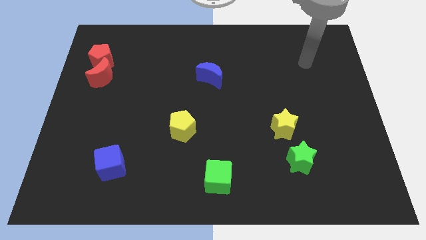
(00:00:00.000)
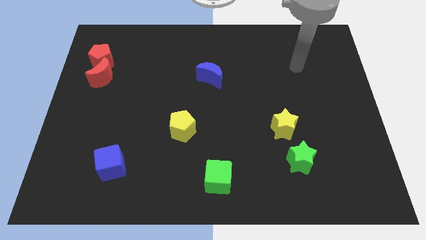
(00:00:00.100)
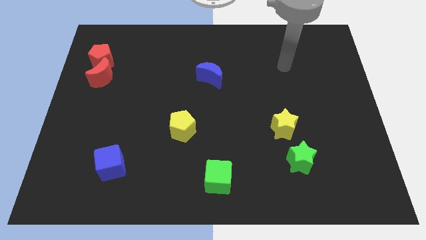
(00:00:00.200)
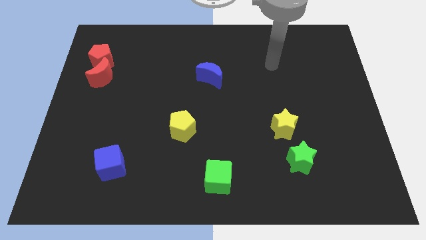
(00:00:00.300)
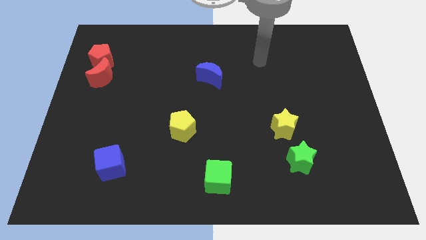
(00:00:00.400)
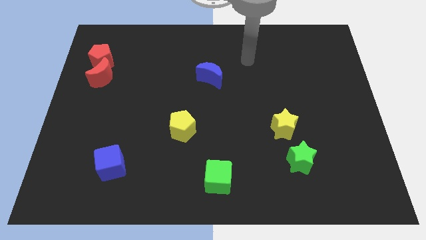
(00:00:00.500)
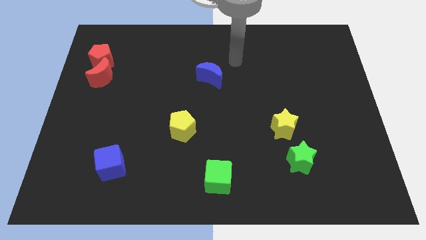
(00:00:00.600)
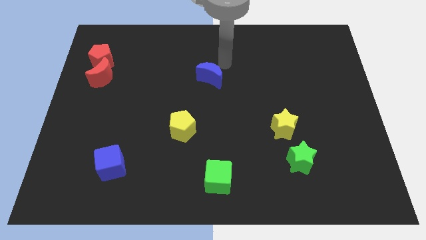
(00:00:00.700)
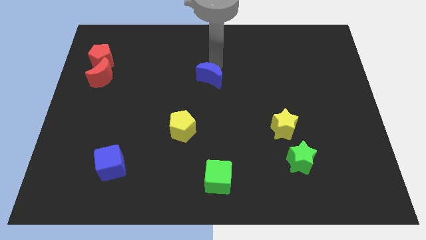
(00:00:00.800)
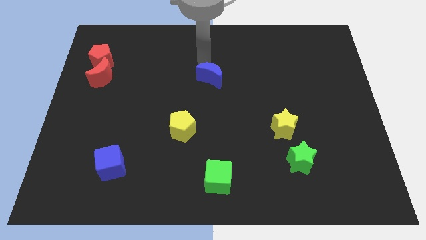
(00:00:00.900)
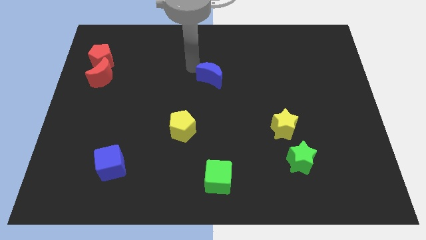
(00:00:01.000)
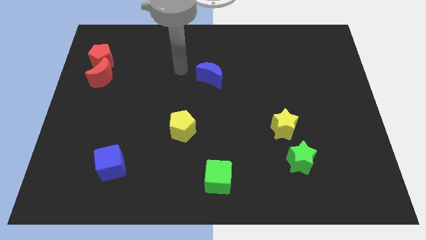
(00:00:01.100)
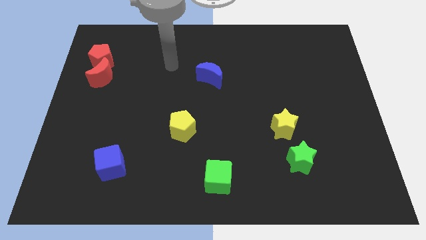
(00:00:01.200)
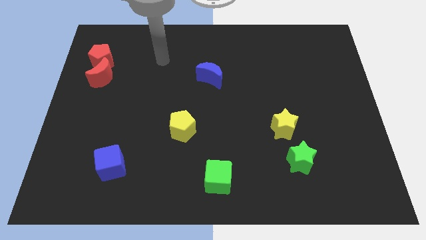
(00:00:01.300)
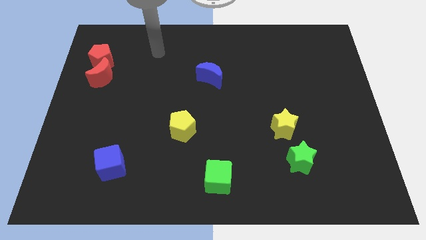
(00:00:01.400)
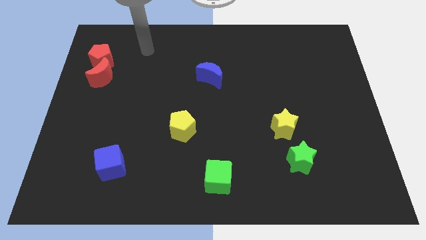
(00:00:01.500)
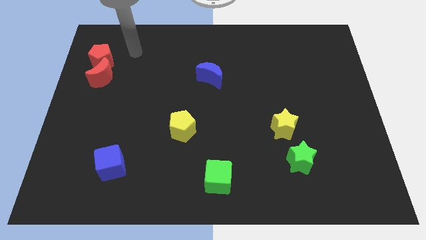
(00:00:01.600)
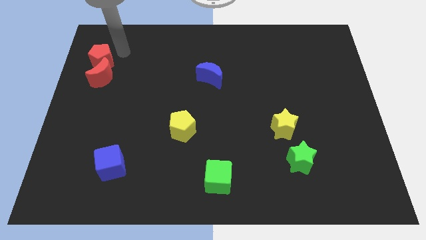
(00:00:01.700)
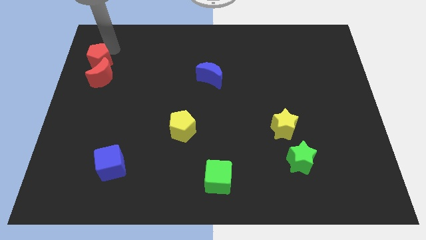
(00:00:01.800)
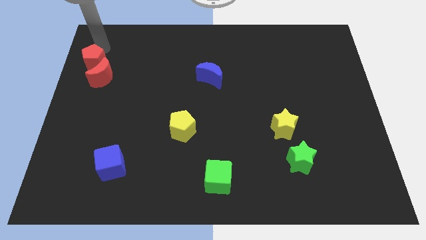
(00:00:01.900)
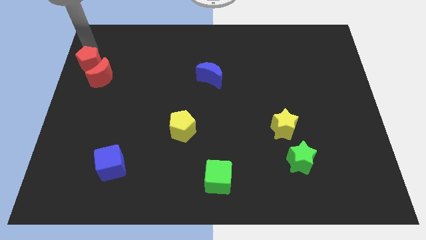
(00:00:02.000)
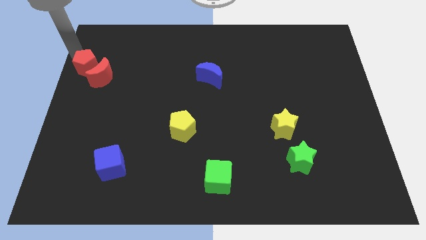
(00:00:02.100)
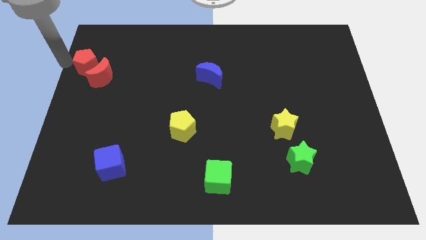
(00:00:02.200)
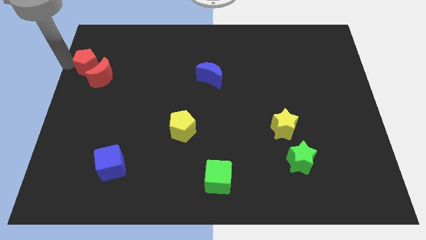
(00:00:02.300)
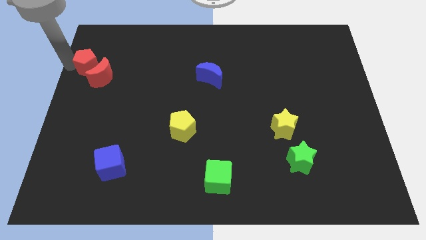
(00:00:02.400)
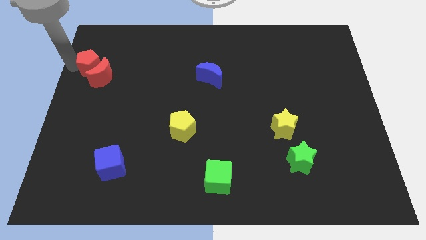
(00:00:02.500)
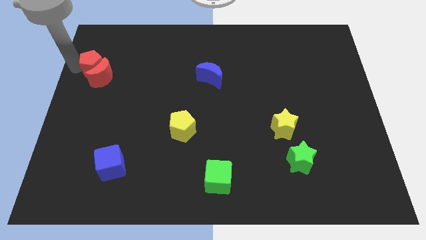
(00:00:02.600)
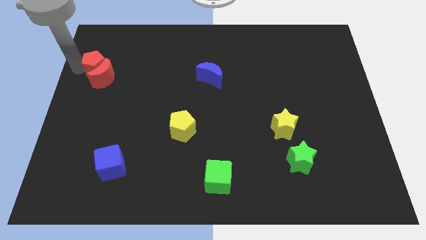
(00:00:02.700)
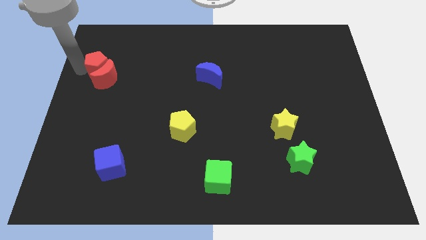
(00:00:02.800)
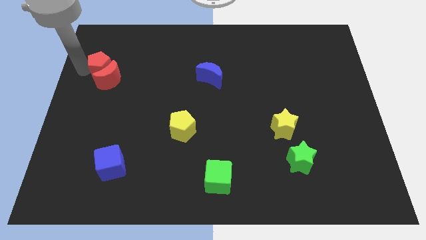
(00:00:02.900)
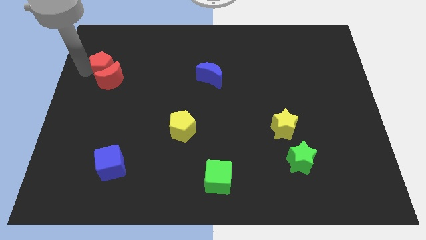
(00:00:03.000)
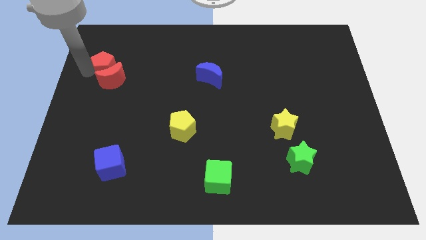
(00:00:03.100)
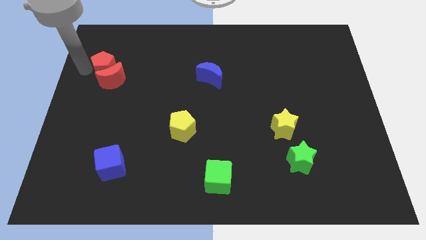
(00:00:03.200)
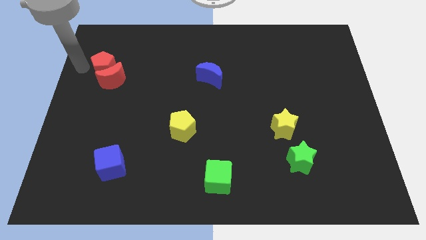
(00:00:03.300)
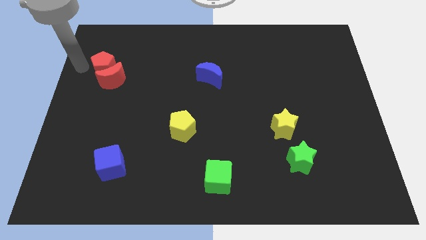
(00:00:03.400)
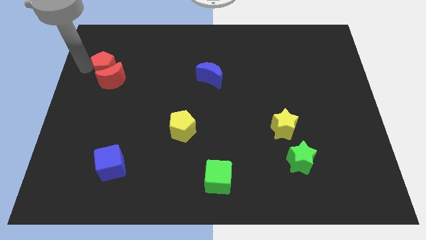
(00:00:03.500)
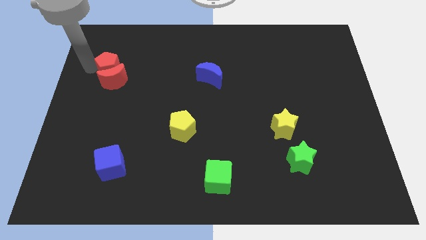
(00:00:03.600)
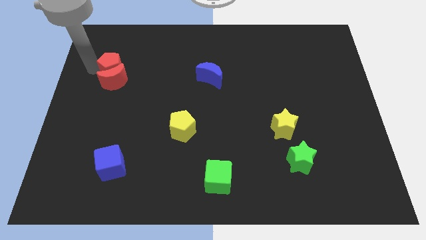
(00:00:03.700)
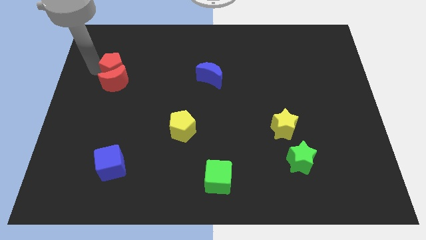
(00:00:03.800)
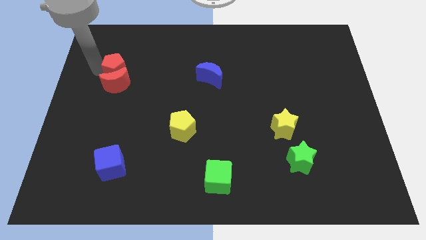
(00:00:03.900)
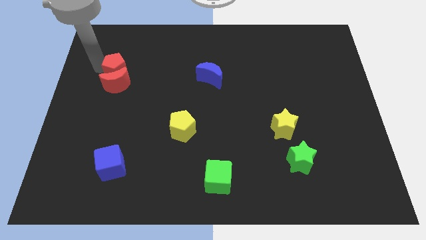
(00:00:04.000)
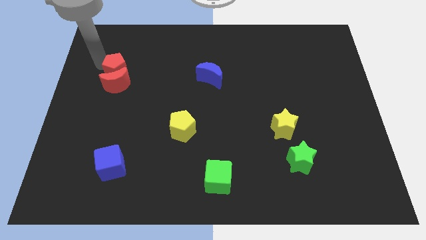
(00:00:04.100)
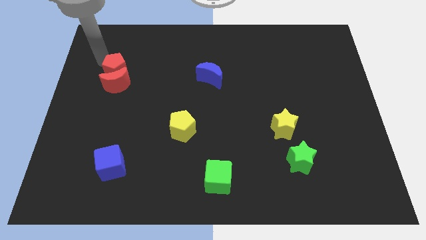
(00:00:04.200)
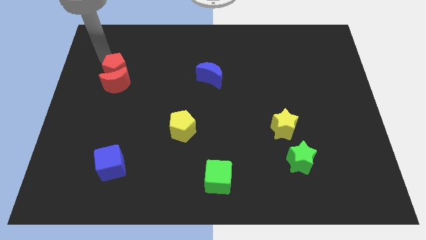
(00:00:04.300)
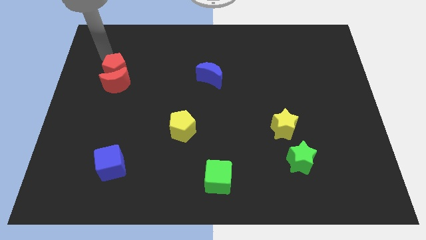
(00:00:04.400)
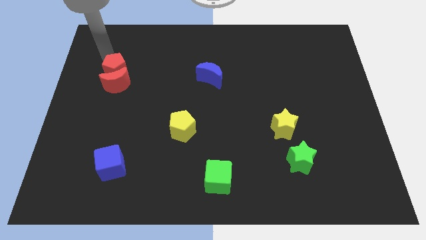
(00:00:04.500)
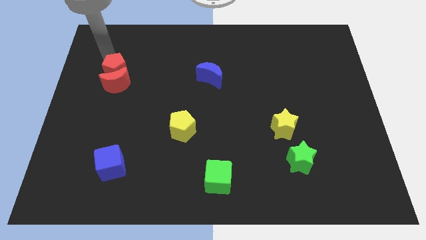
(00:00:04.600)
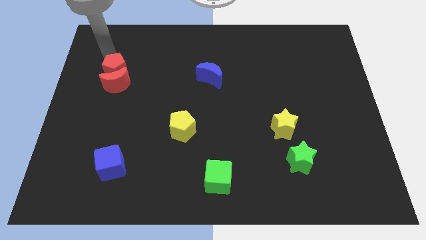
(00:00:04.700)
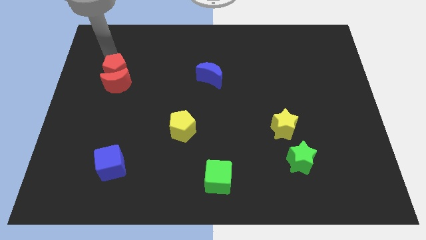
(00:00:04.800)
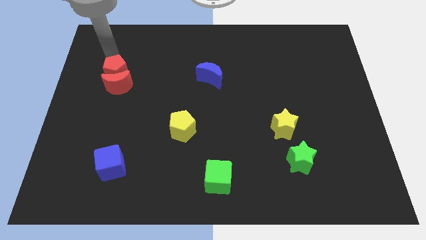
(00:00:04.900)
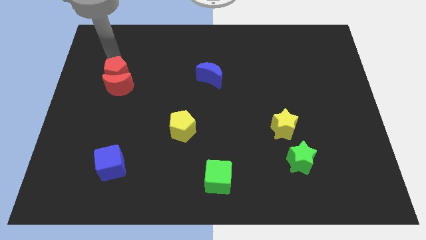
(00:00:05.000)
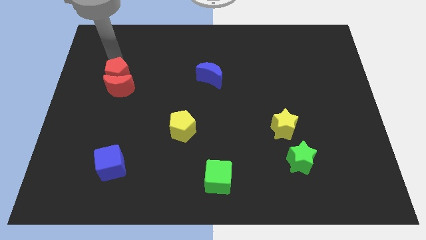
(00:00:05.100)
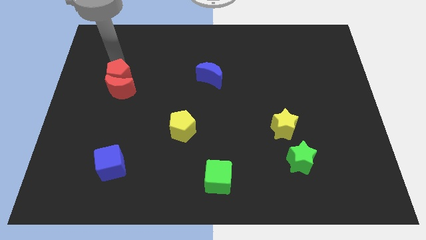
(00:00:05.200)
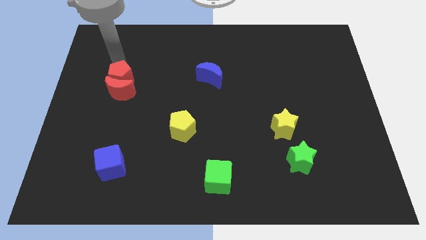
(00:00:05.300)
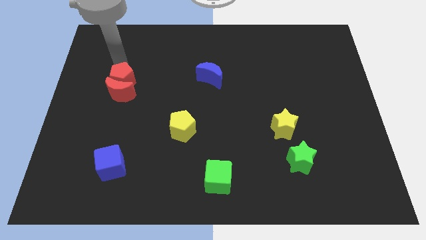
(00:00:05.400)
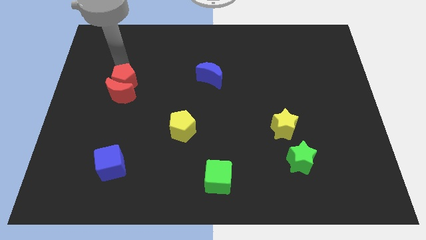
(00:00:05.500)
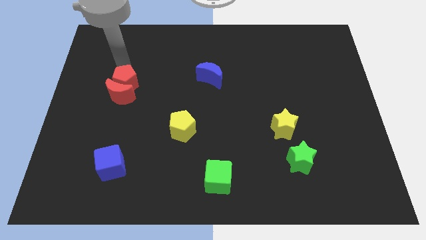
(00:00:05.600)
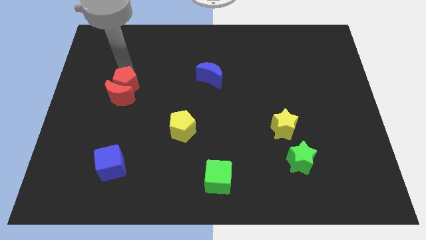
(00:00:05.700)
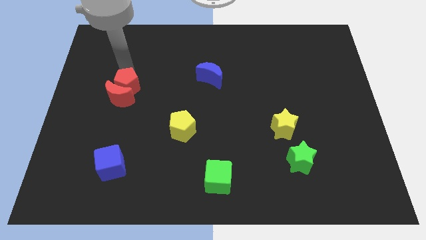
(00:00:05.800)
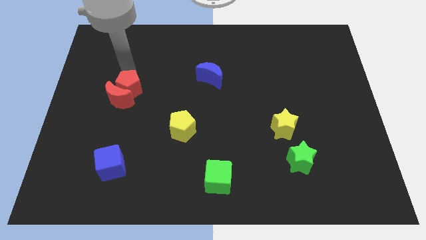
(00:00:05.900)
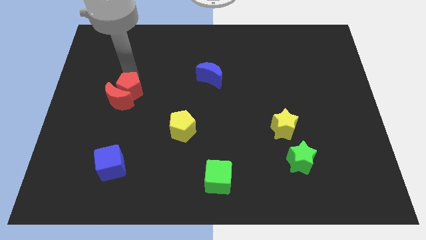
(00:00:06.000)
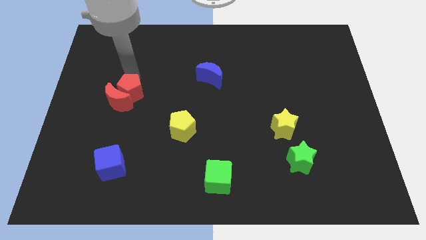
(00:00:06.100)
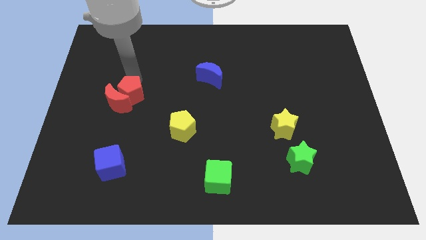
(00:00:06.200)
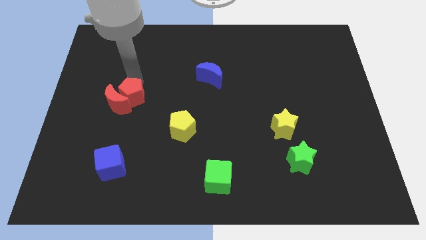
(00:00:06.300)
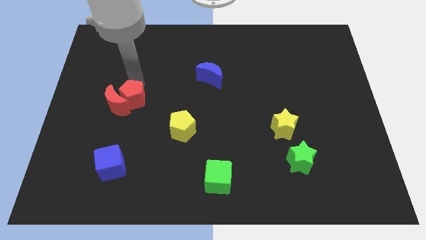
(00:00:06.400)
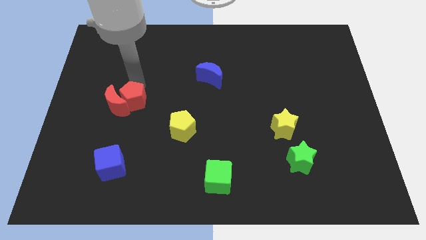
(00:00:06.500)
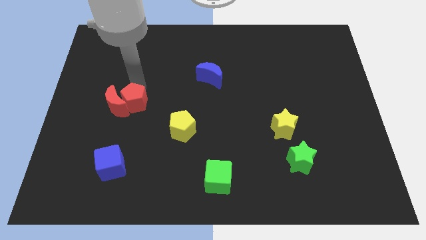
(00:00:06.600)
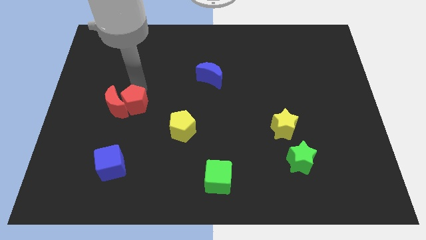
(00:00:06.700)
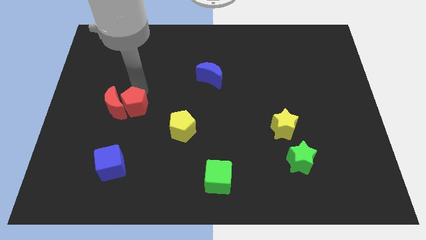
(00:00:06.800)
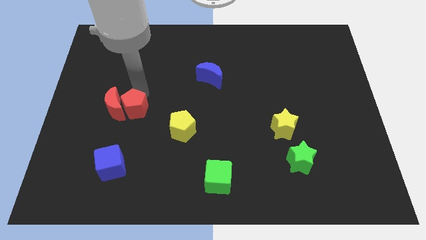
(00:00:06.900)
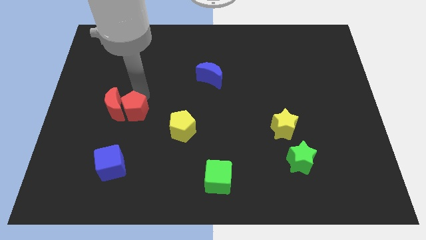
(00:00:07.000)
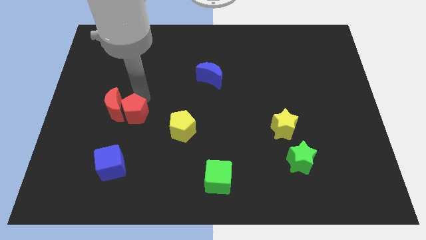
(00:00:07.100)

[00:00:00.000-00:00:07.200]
put the red pentagon left of the yellow pentagon
